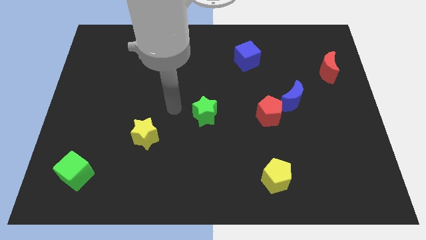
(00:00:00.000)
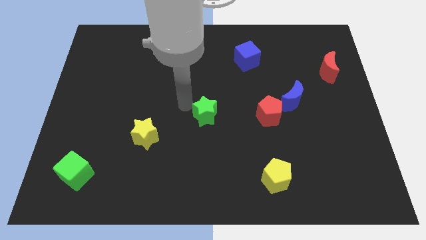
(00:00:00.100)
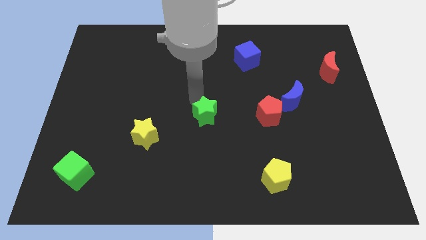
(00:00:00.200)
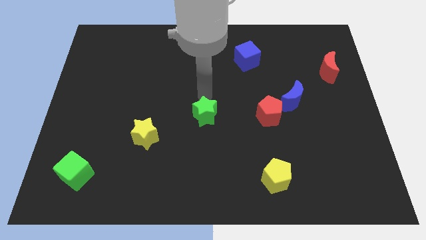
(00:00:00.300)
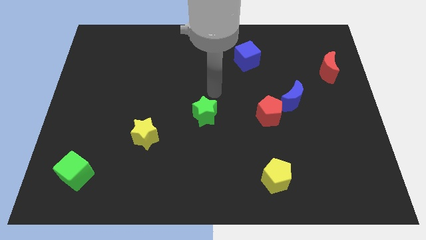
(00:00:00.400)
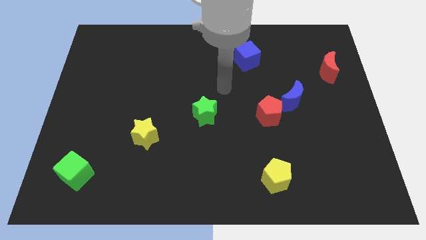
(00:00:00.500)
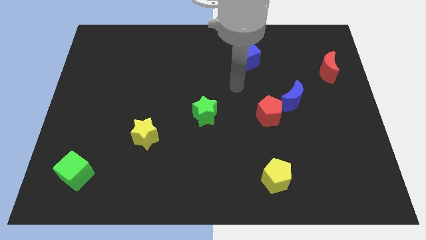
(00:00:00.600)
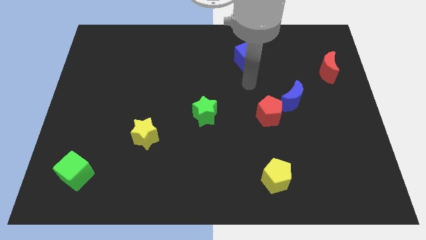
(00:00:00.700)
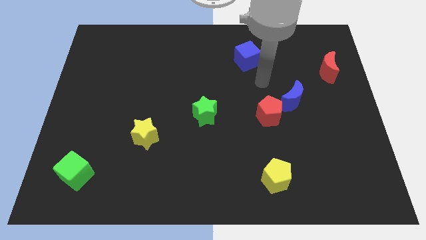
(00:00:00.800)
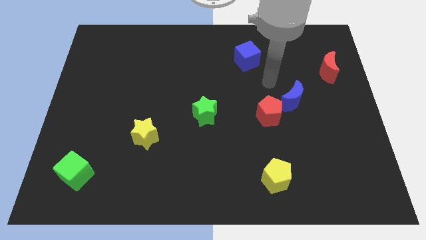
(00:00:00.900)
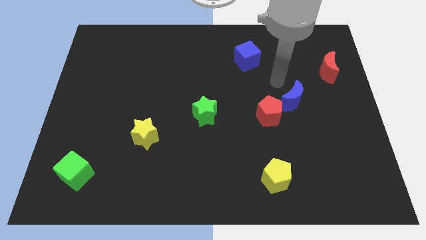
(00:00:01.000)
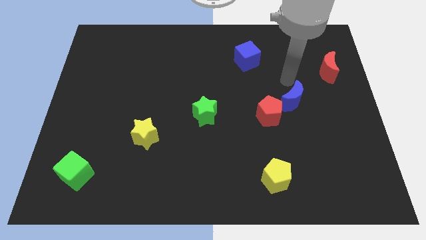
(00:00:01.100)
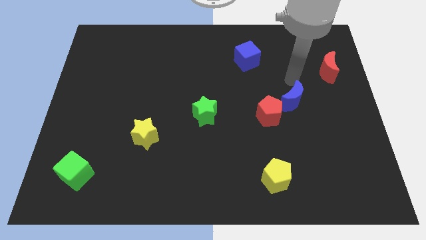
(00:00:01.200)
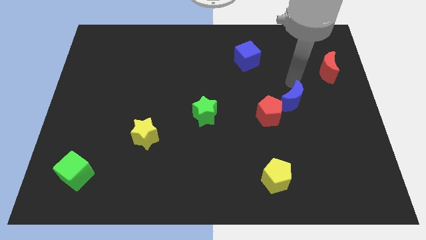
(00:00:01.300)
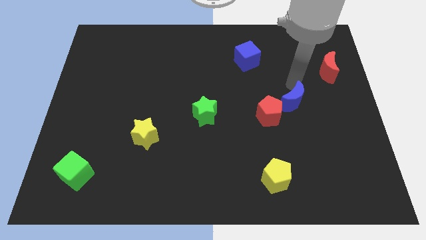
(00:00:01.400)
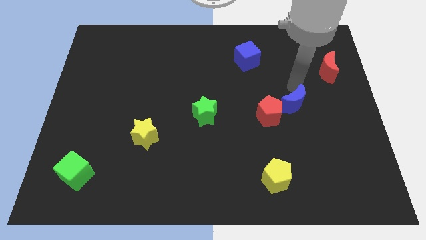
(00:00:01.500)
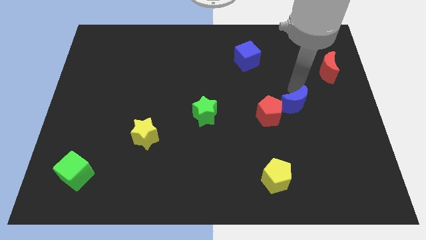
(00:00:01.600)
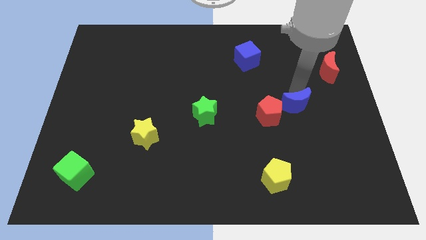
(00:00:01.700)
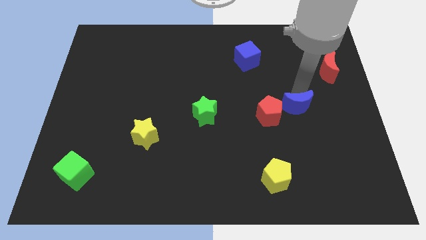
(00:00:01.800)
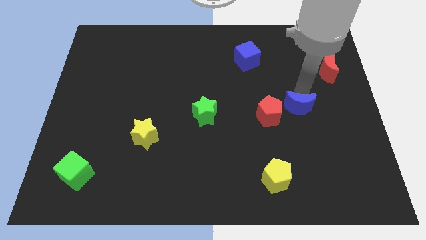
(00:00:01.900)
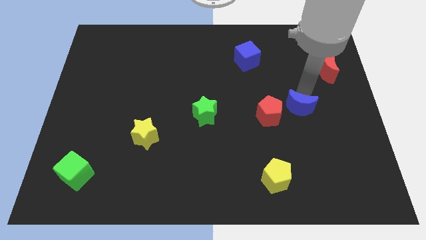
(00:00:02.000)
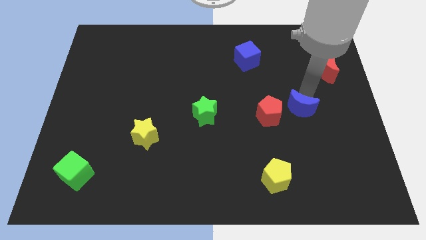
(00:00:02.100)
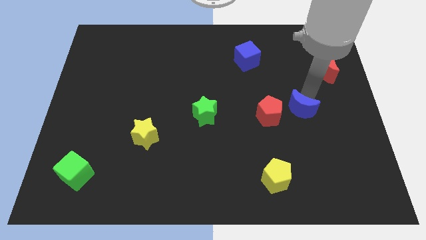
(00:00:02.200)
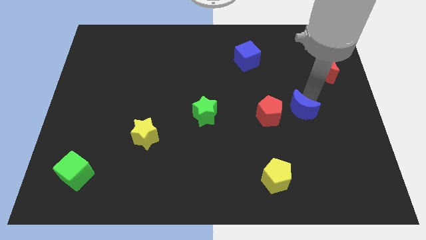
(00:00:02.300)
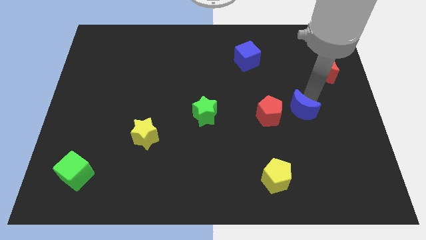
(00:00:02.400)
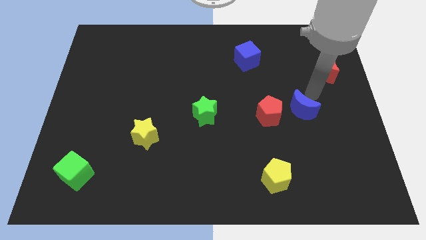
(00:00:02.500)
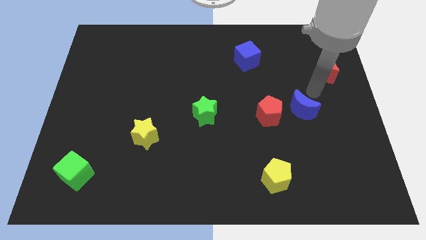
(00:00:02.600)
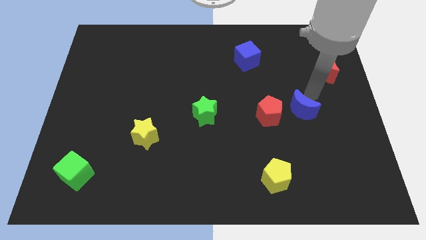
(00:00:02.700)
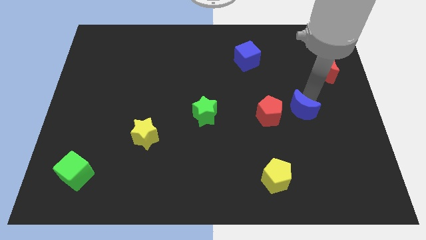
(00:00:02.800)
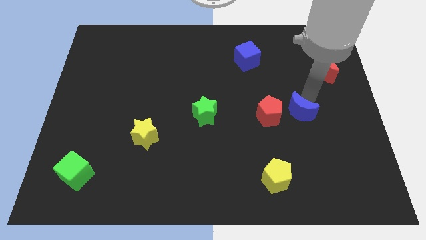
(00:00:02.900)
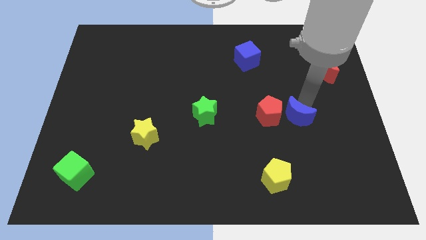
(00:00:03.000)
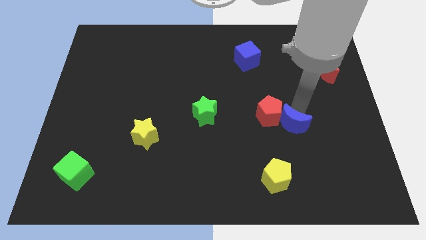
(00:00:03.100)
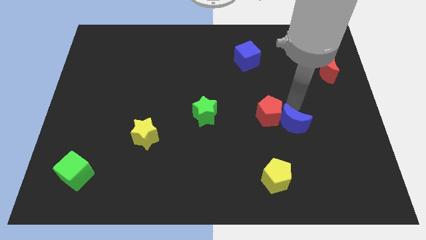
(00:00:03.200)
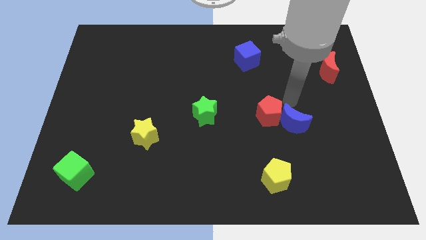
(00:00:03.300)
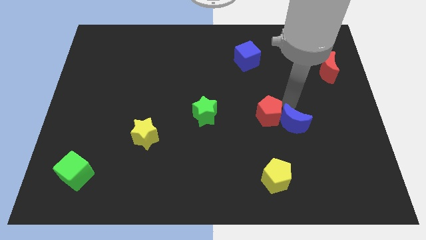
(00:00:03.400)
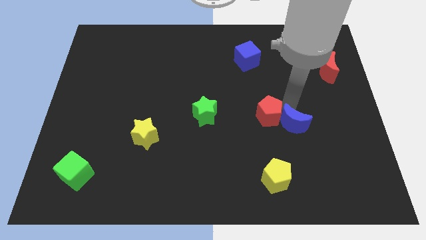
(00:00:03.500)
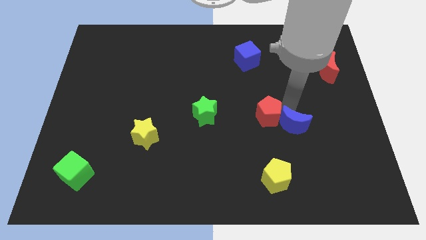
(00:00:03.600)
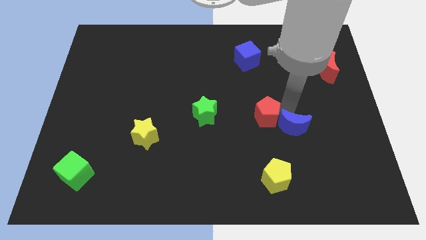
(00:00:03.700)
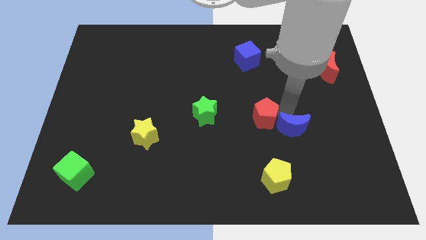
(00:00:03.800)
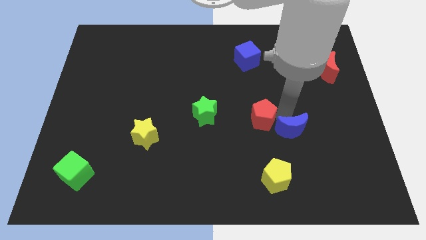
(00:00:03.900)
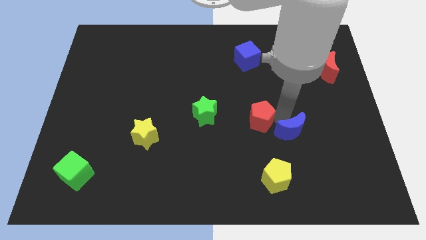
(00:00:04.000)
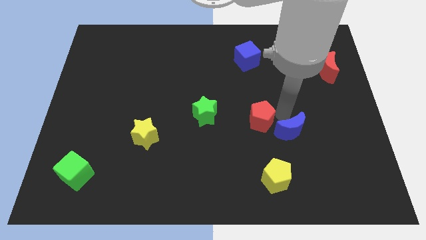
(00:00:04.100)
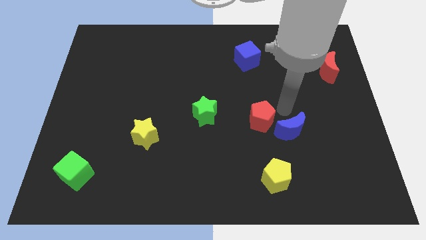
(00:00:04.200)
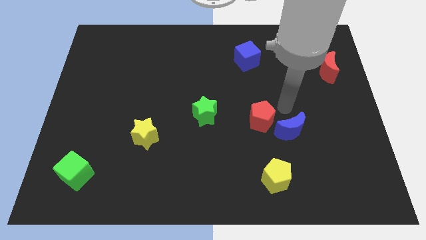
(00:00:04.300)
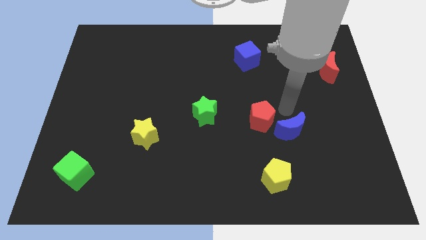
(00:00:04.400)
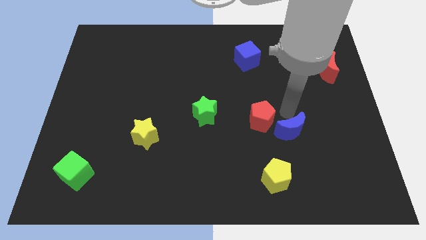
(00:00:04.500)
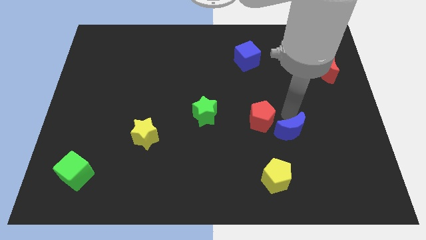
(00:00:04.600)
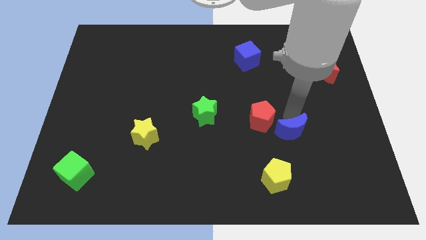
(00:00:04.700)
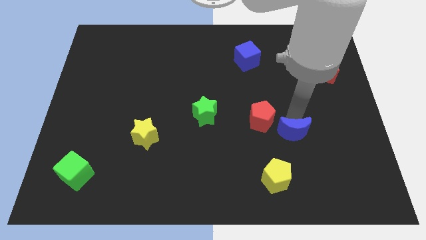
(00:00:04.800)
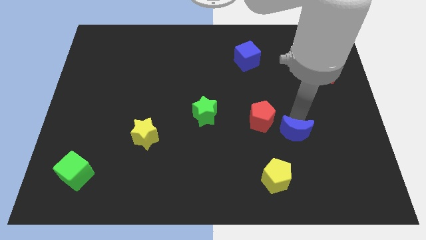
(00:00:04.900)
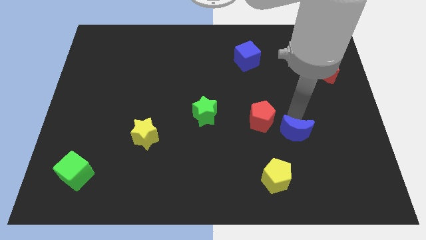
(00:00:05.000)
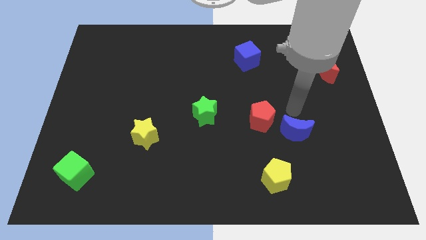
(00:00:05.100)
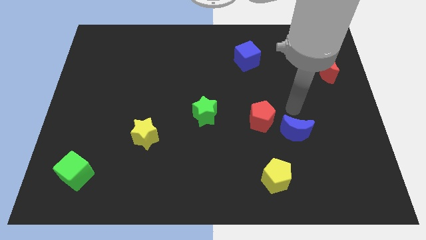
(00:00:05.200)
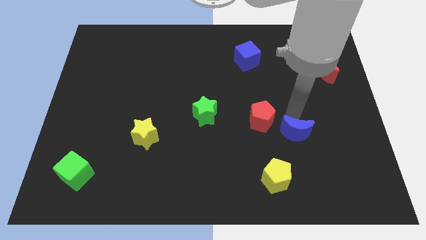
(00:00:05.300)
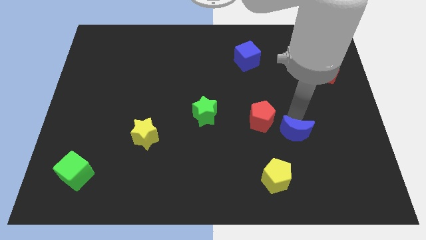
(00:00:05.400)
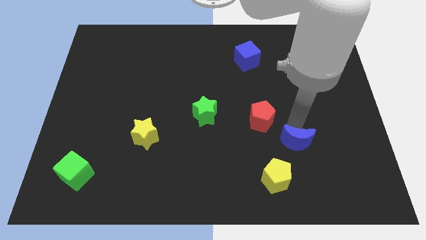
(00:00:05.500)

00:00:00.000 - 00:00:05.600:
push the blue moon to the top right of the yellow pentagon

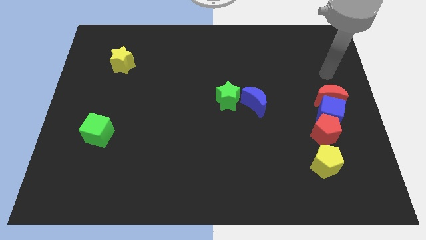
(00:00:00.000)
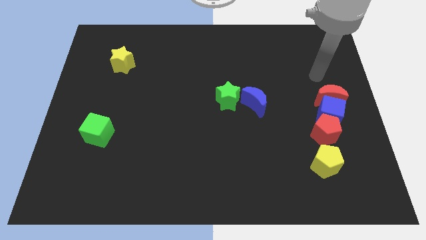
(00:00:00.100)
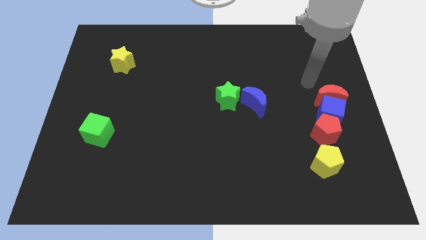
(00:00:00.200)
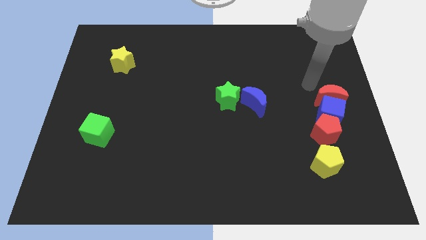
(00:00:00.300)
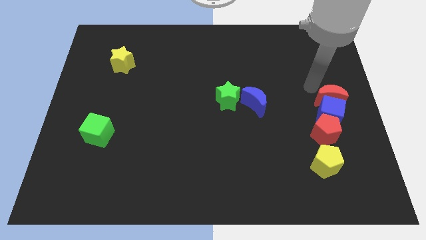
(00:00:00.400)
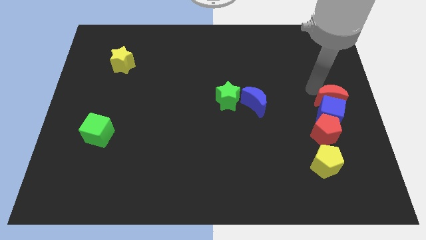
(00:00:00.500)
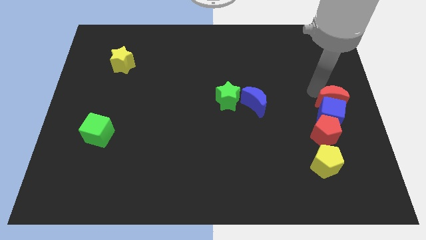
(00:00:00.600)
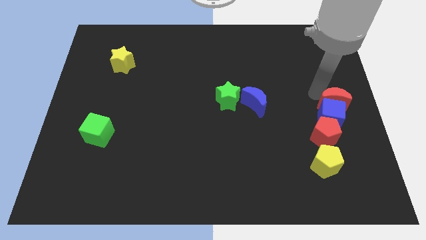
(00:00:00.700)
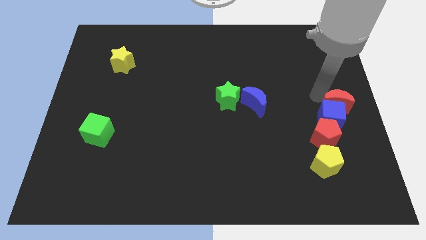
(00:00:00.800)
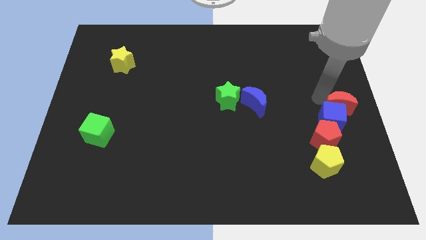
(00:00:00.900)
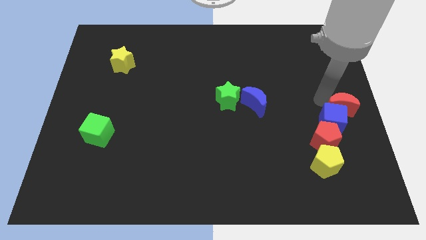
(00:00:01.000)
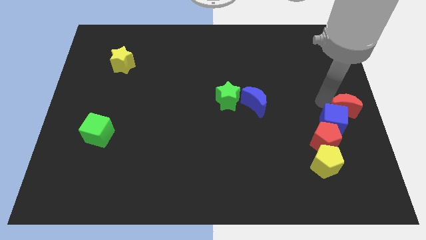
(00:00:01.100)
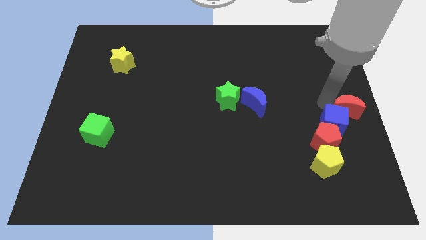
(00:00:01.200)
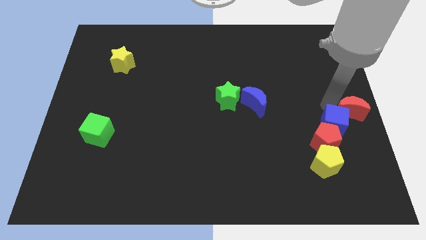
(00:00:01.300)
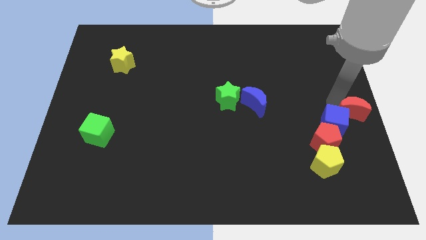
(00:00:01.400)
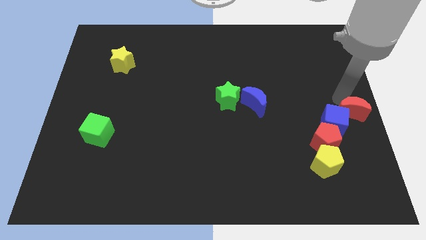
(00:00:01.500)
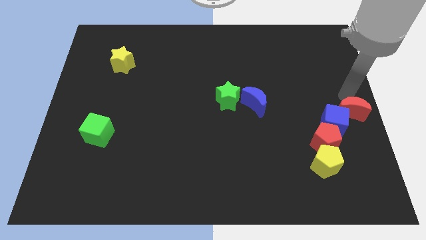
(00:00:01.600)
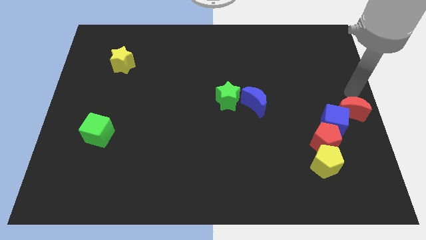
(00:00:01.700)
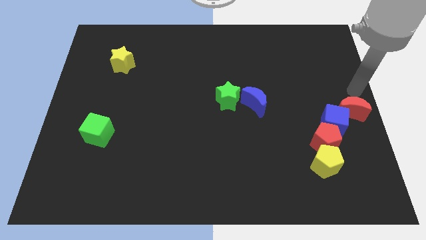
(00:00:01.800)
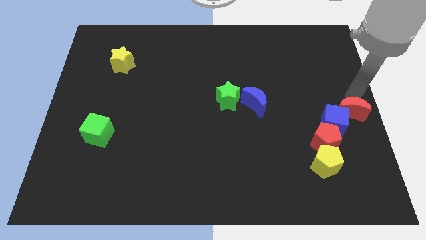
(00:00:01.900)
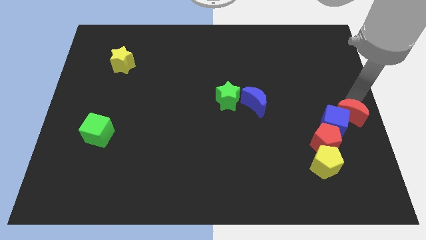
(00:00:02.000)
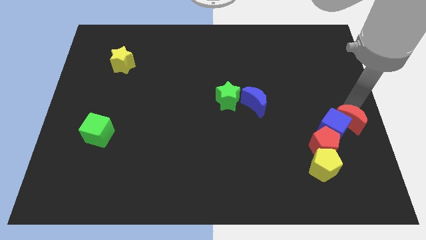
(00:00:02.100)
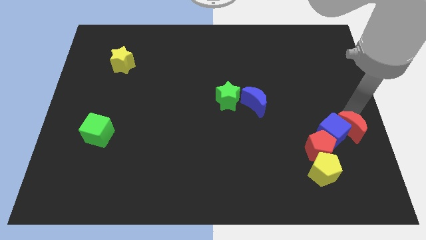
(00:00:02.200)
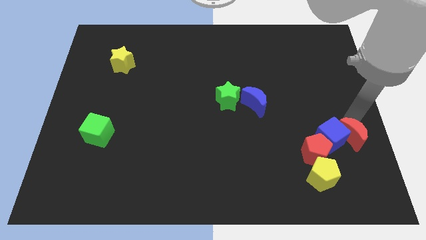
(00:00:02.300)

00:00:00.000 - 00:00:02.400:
move the red moon to the top right side of the yellow pentagon
